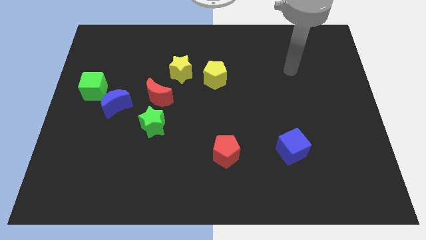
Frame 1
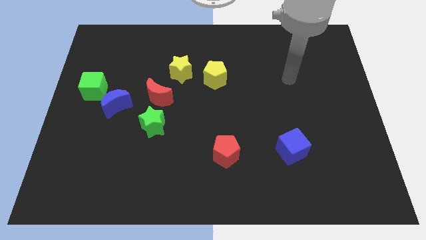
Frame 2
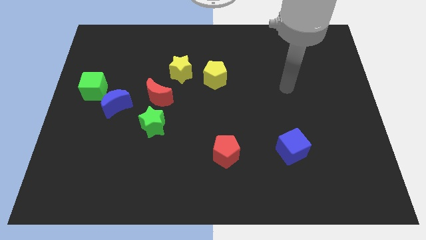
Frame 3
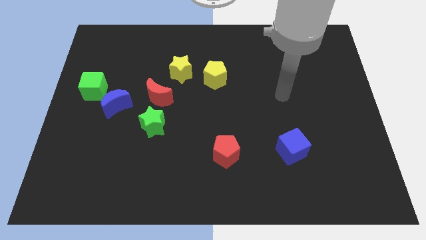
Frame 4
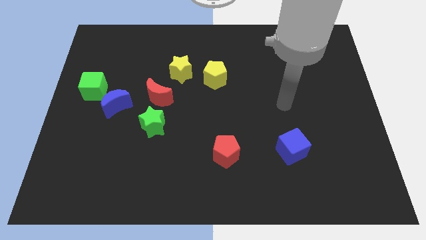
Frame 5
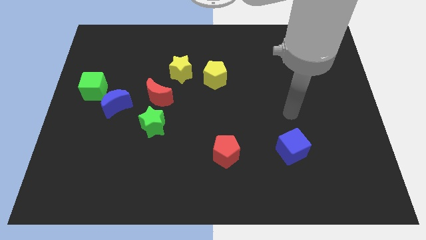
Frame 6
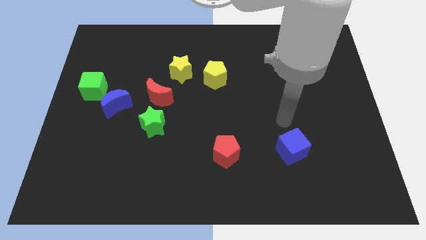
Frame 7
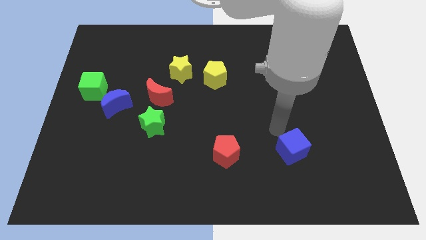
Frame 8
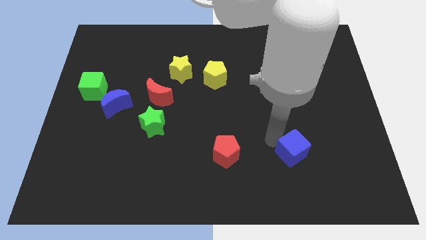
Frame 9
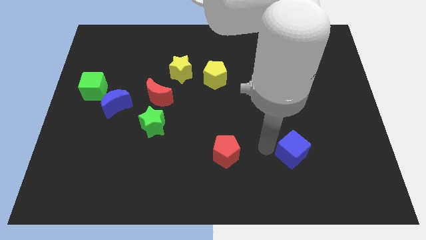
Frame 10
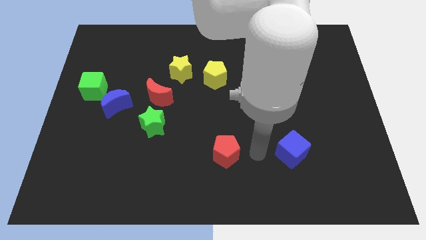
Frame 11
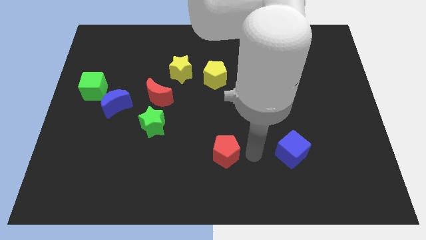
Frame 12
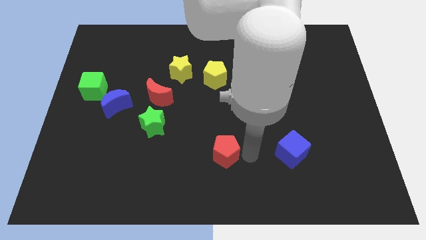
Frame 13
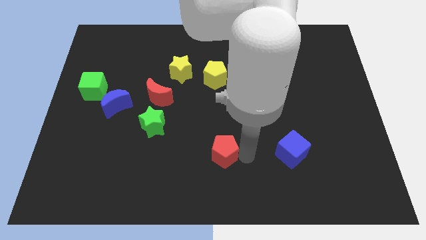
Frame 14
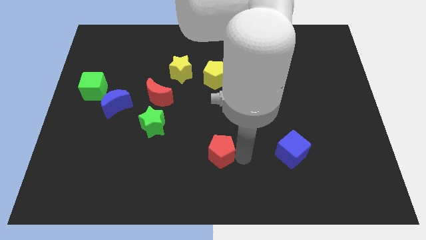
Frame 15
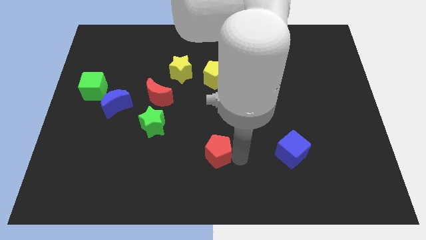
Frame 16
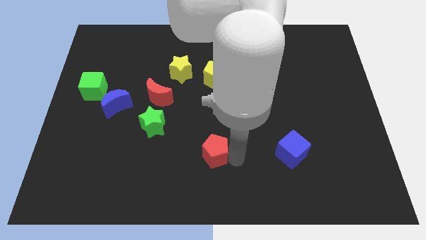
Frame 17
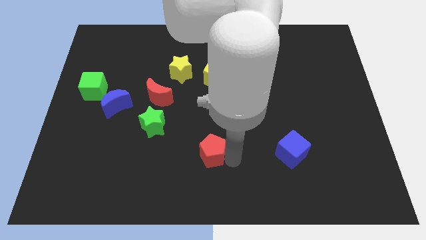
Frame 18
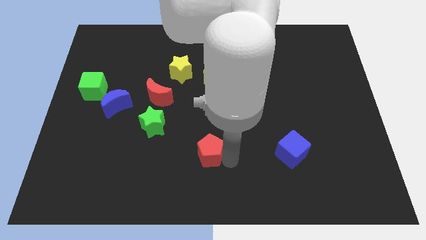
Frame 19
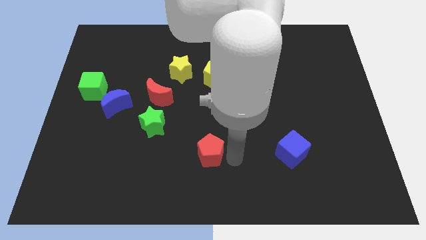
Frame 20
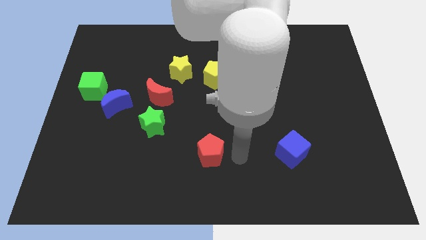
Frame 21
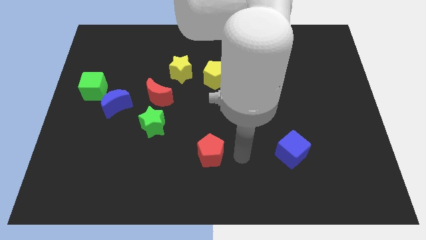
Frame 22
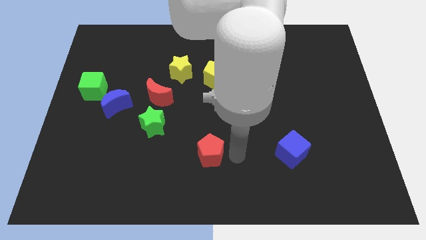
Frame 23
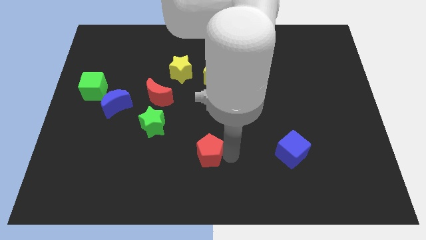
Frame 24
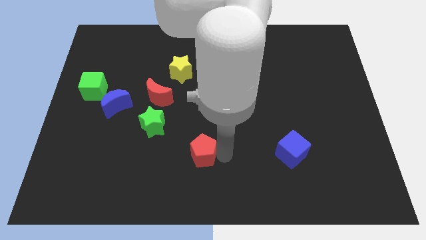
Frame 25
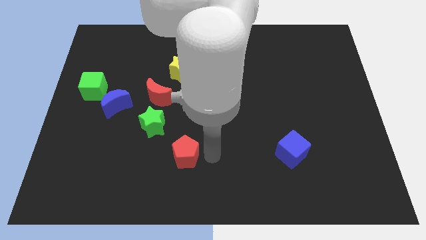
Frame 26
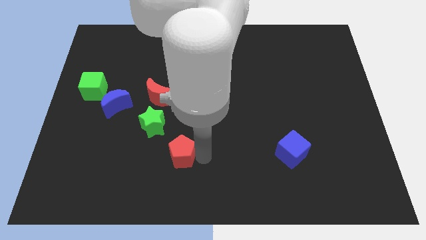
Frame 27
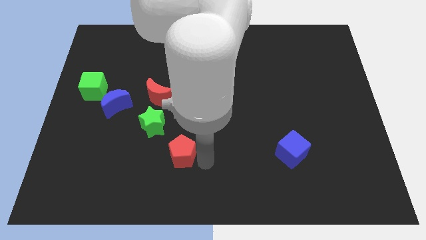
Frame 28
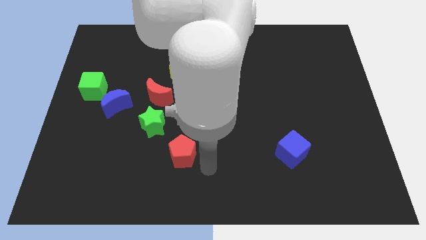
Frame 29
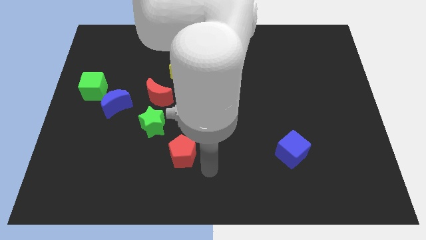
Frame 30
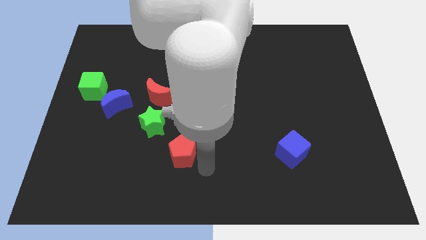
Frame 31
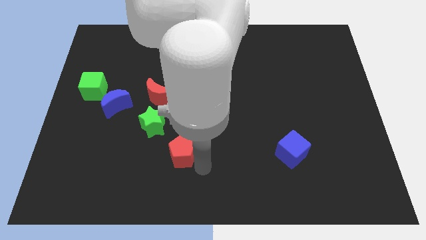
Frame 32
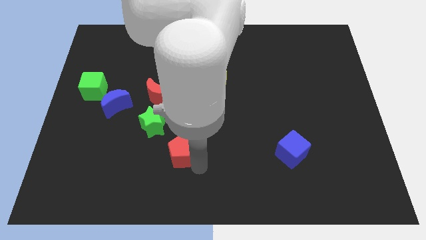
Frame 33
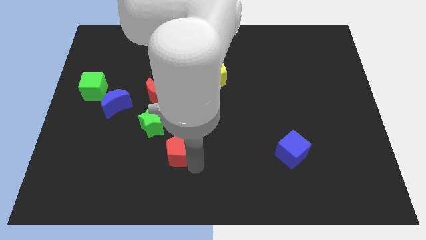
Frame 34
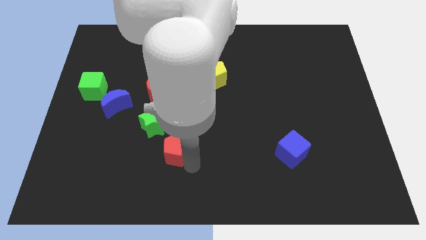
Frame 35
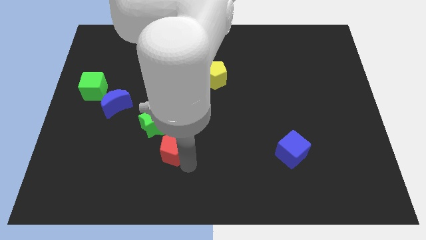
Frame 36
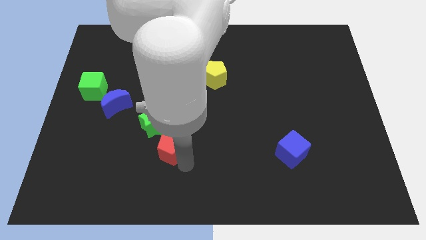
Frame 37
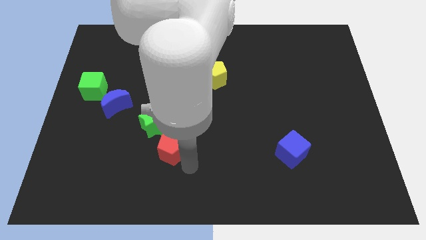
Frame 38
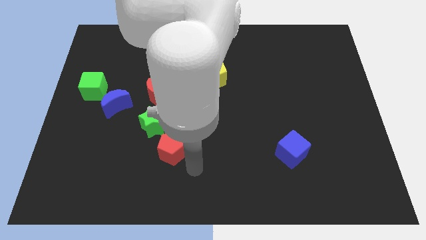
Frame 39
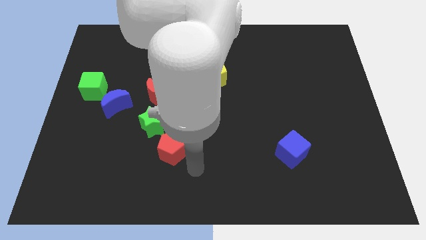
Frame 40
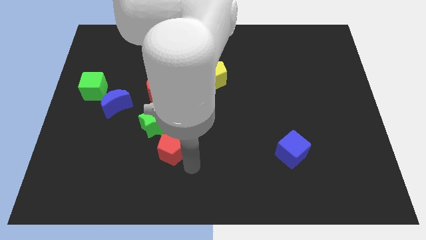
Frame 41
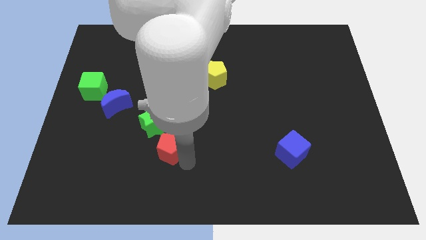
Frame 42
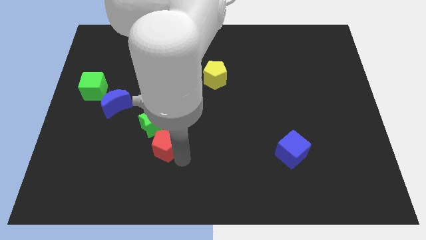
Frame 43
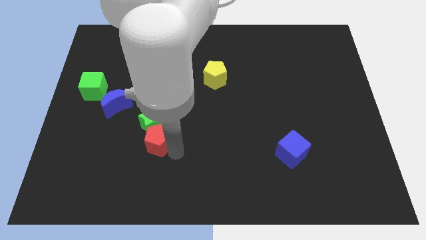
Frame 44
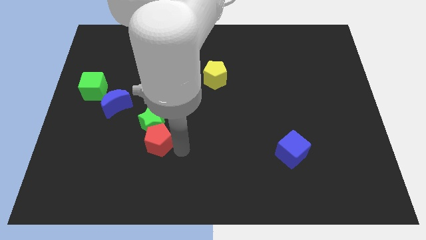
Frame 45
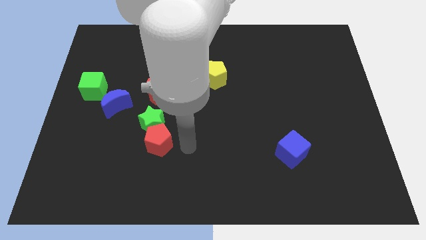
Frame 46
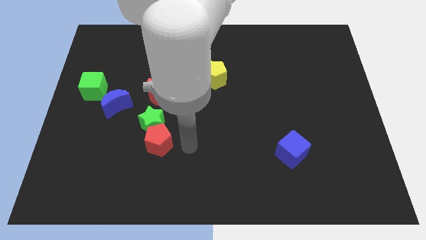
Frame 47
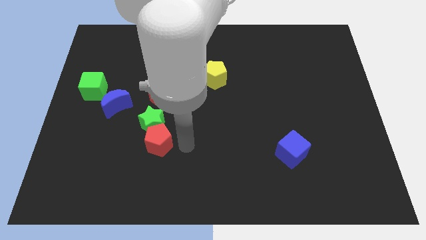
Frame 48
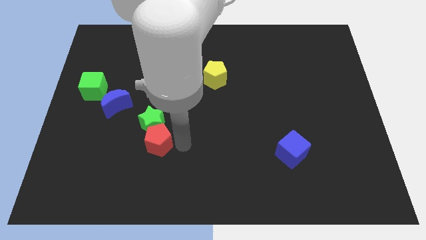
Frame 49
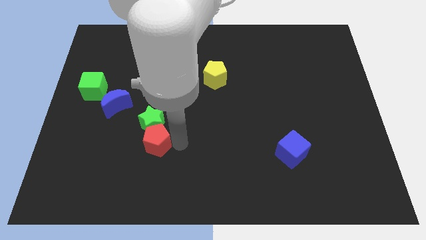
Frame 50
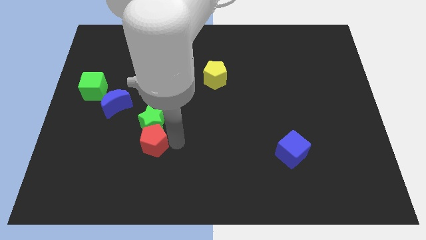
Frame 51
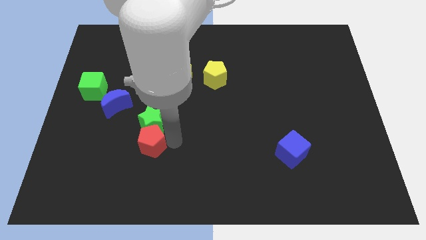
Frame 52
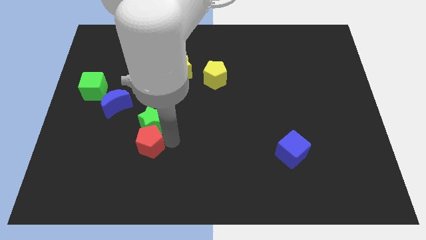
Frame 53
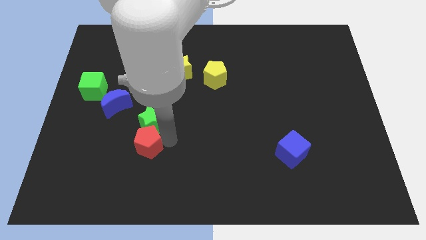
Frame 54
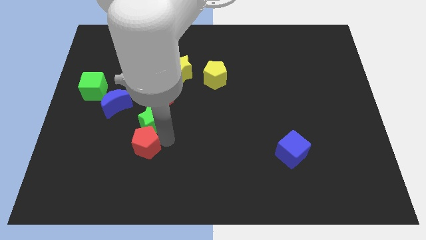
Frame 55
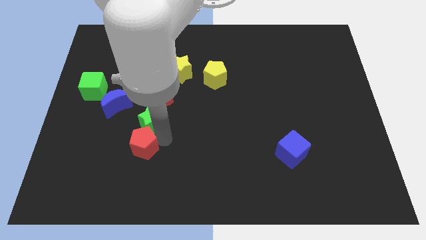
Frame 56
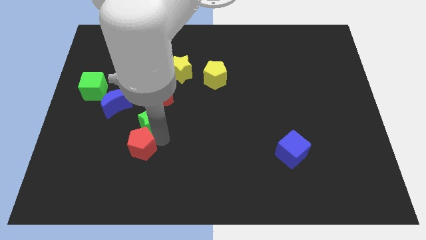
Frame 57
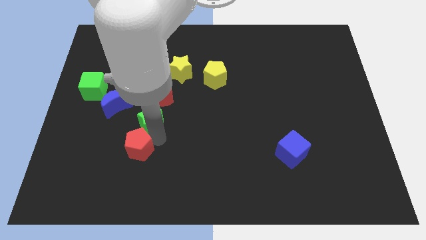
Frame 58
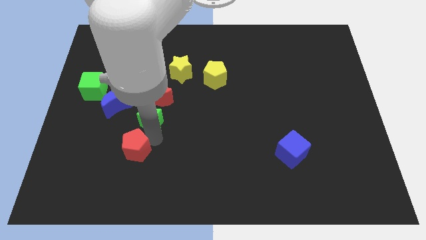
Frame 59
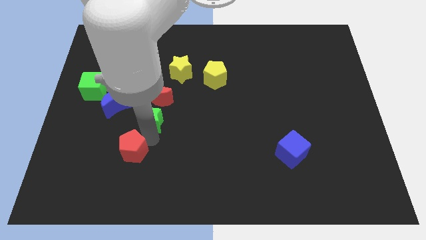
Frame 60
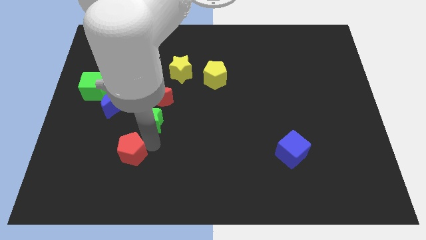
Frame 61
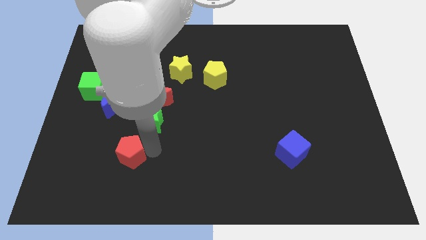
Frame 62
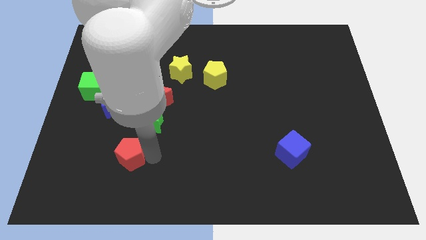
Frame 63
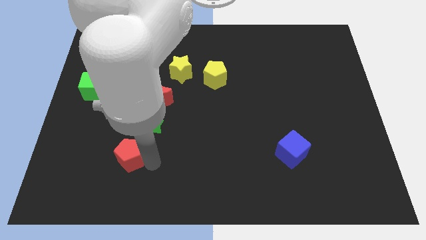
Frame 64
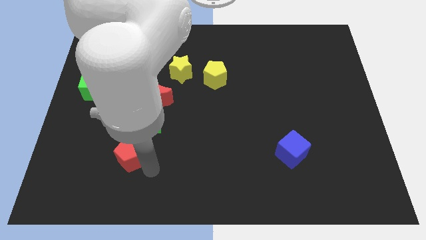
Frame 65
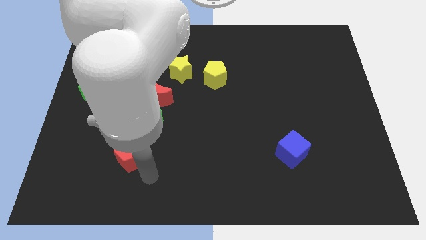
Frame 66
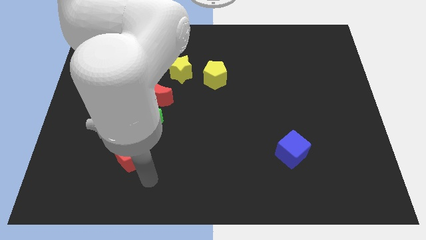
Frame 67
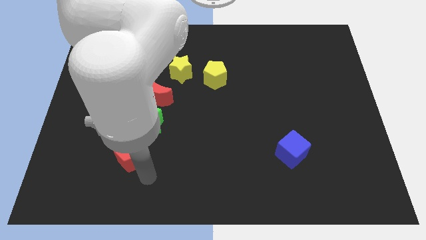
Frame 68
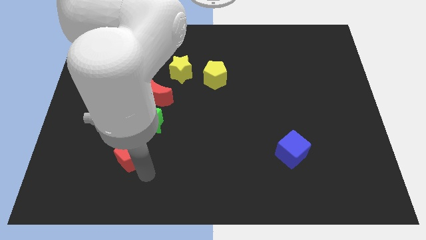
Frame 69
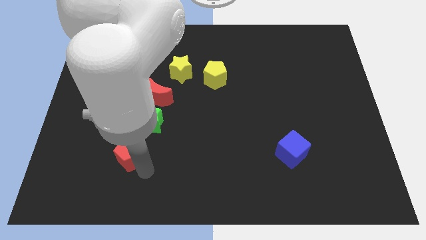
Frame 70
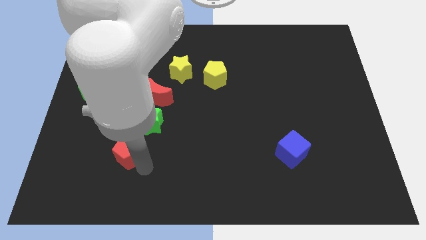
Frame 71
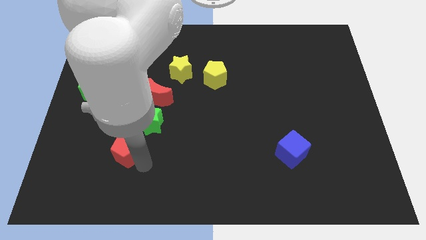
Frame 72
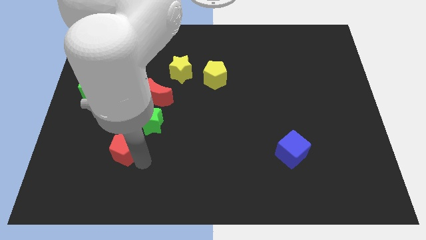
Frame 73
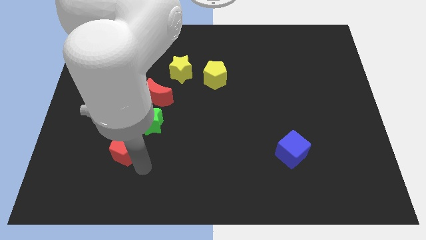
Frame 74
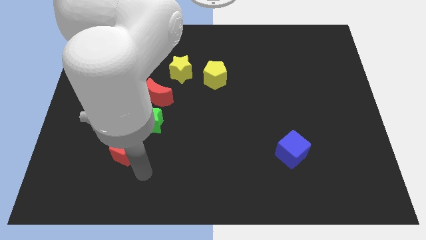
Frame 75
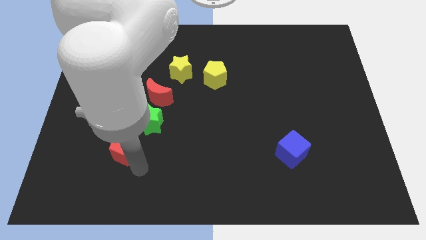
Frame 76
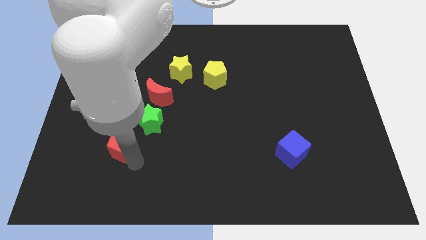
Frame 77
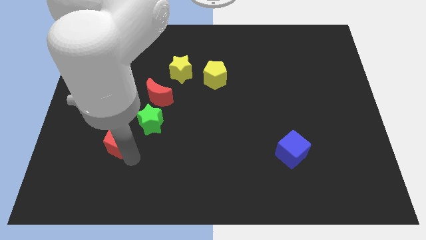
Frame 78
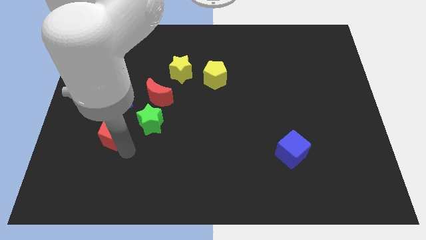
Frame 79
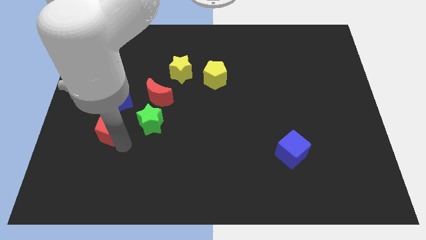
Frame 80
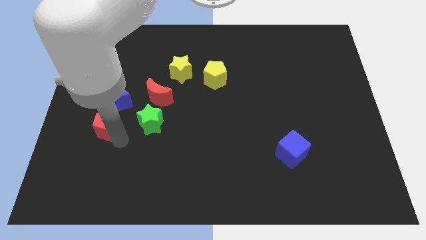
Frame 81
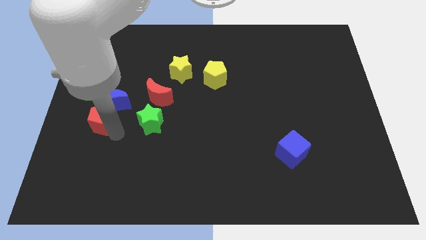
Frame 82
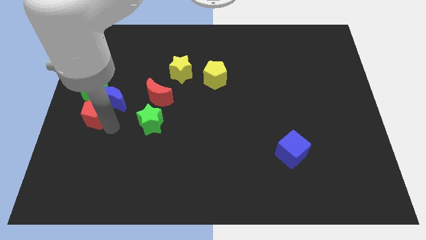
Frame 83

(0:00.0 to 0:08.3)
slide the red pentagon to the left side of the board
